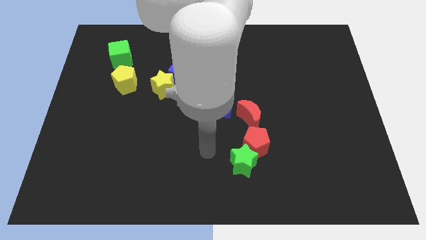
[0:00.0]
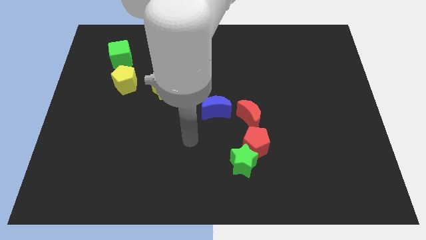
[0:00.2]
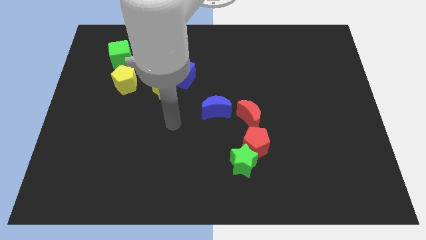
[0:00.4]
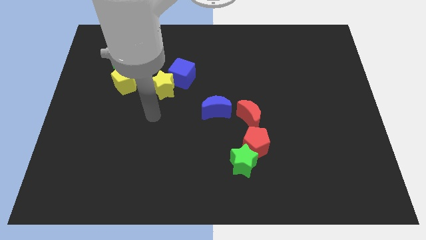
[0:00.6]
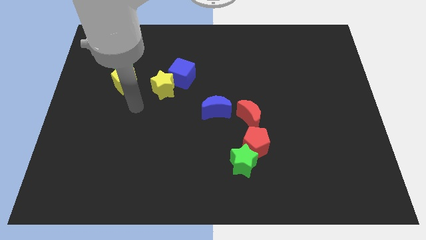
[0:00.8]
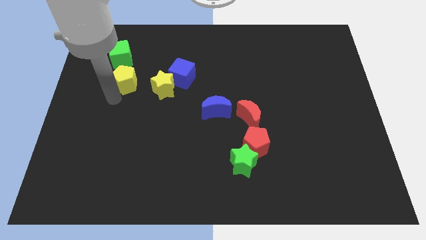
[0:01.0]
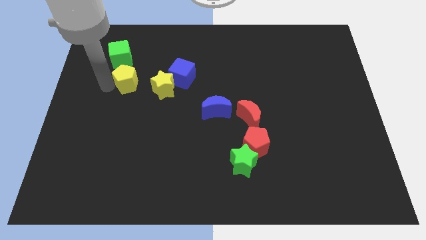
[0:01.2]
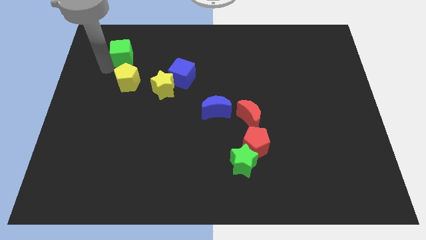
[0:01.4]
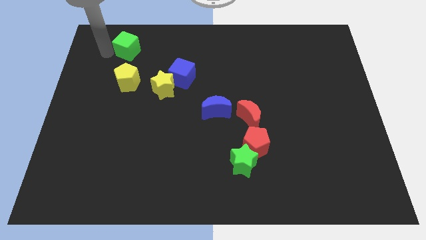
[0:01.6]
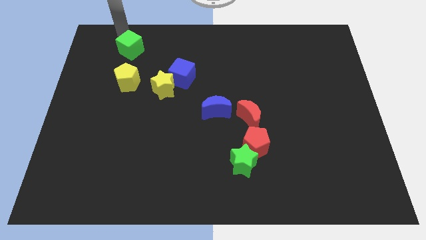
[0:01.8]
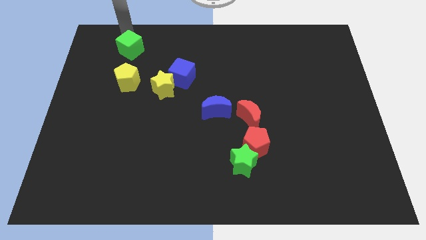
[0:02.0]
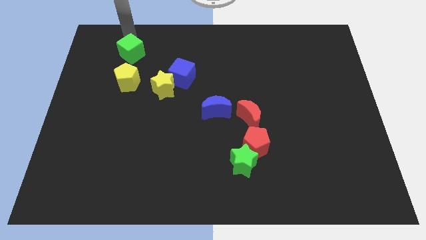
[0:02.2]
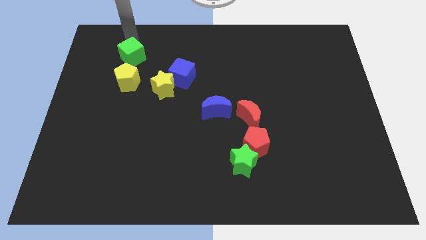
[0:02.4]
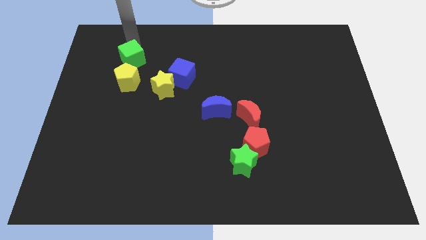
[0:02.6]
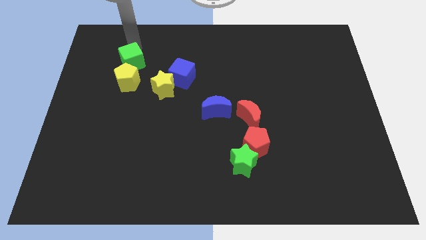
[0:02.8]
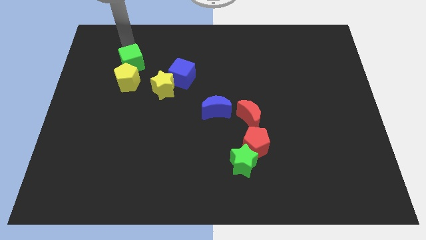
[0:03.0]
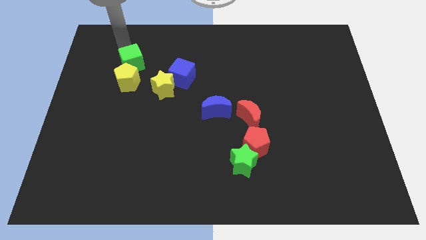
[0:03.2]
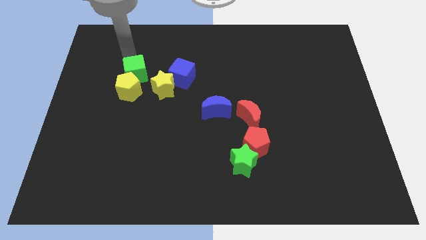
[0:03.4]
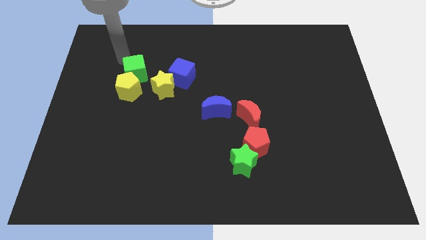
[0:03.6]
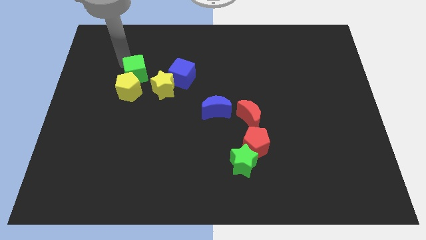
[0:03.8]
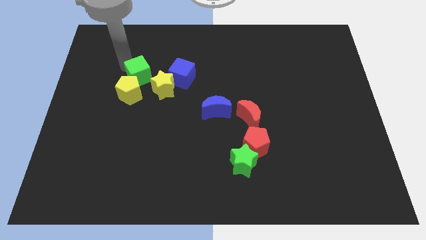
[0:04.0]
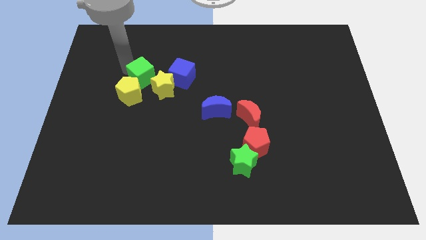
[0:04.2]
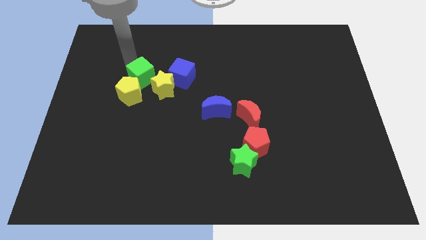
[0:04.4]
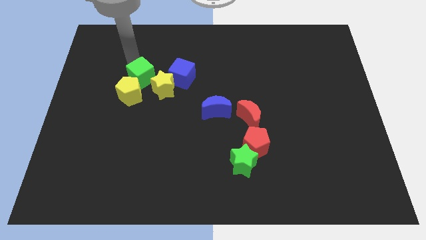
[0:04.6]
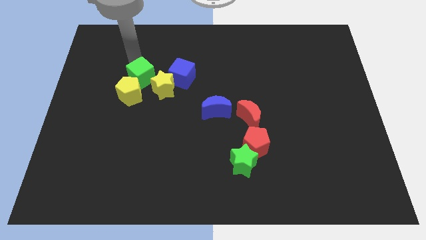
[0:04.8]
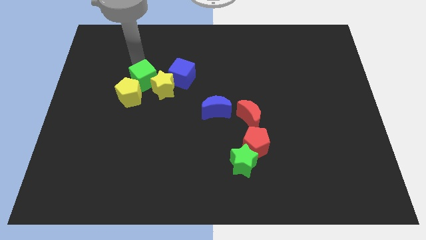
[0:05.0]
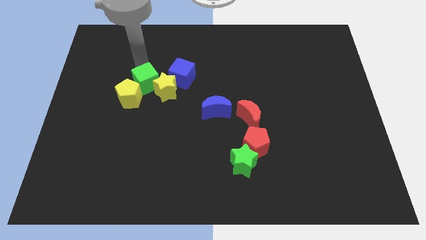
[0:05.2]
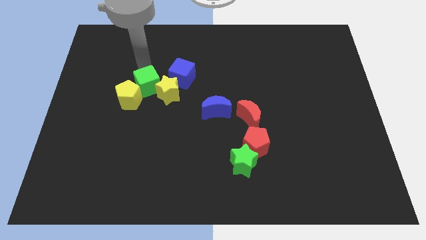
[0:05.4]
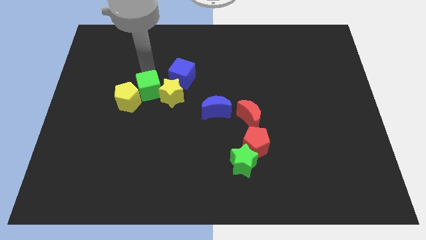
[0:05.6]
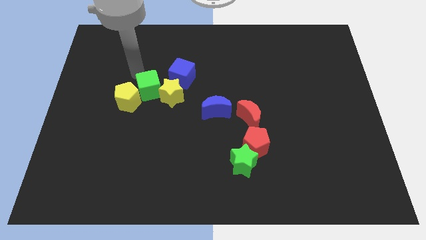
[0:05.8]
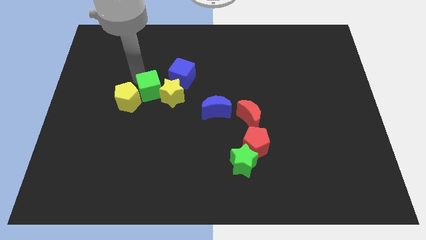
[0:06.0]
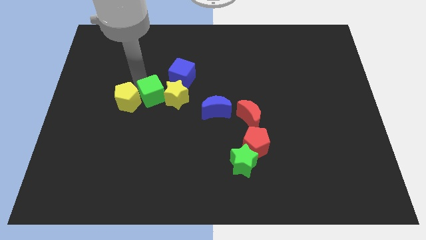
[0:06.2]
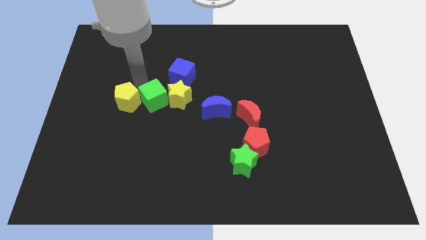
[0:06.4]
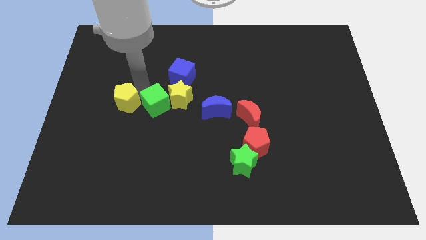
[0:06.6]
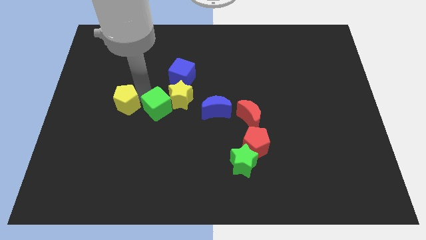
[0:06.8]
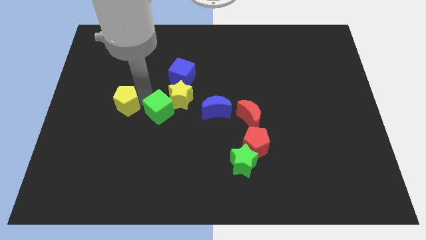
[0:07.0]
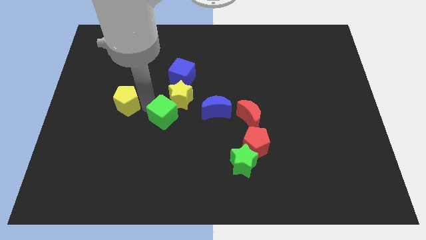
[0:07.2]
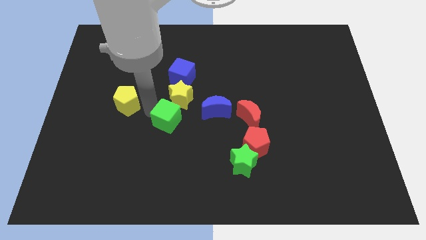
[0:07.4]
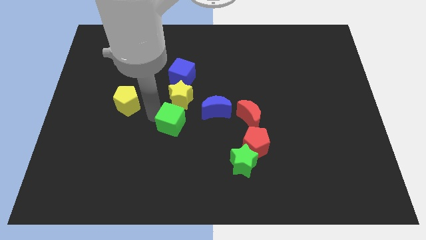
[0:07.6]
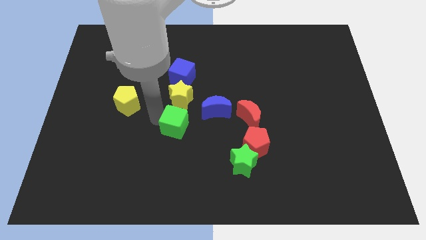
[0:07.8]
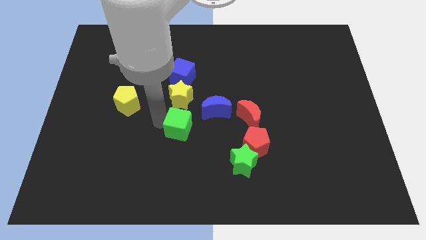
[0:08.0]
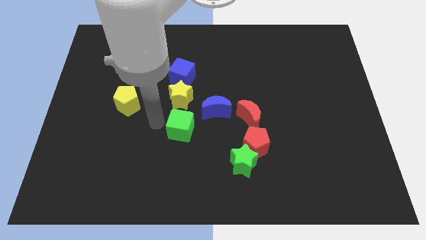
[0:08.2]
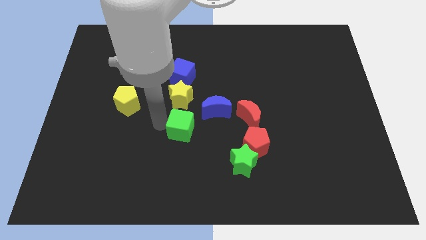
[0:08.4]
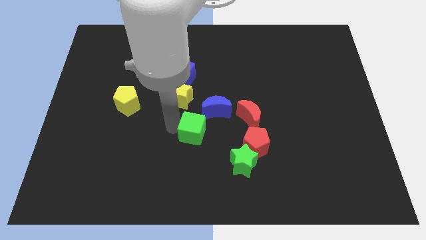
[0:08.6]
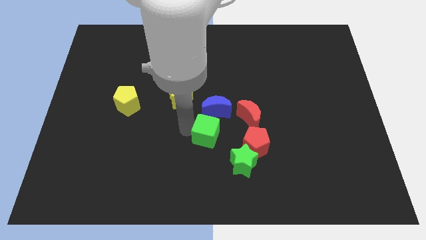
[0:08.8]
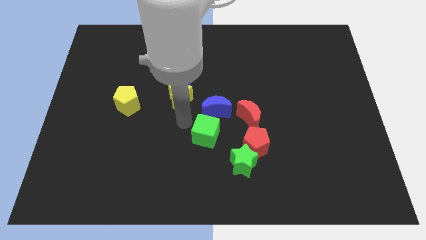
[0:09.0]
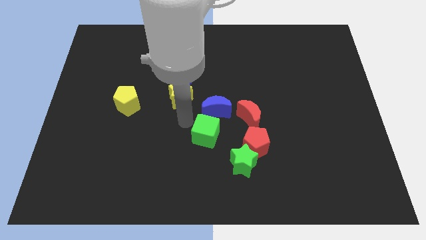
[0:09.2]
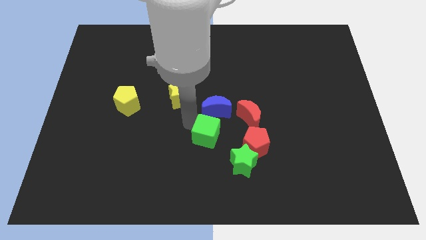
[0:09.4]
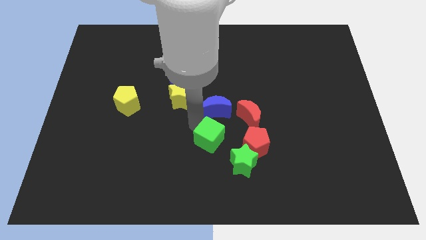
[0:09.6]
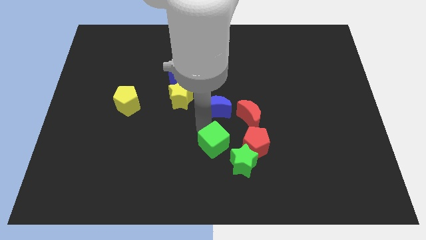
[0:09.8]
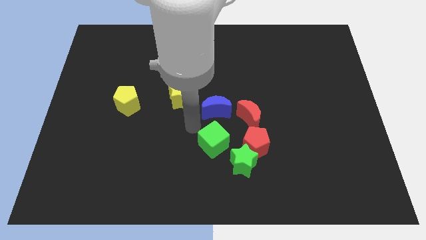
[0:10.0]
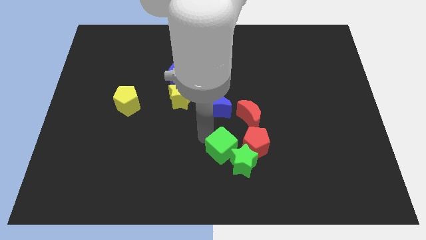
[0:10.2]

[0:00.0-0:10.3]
put the green cube to the green star

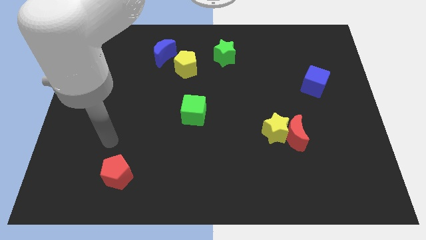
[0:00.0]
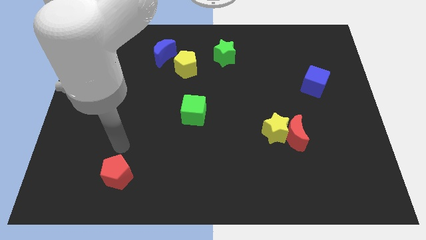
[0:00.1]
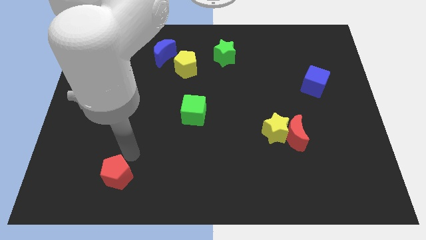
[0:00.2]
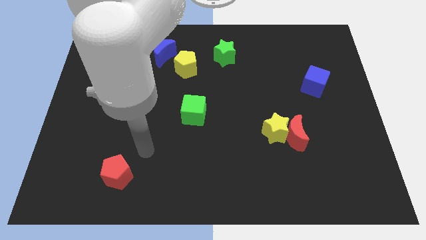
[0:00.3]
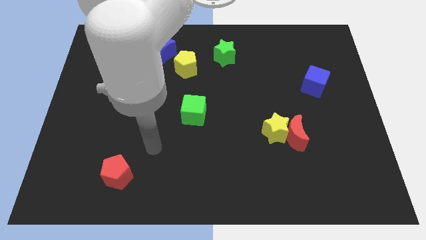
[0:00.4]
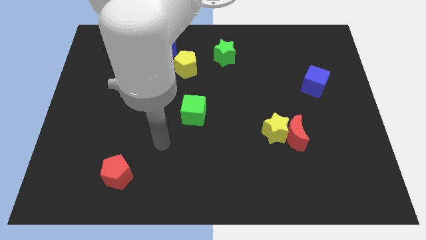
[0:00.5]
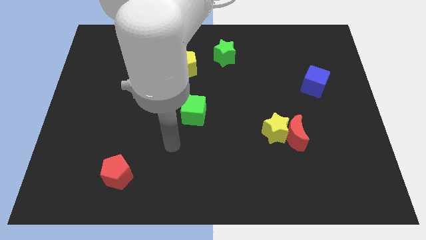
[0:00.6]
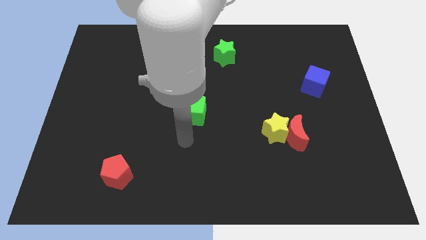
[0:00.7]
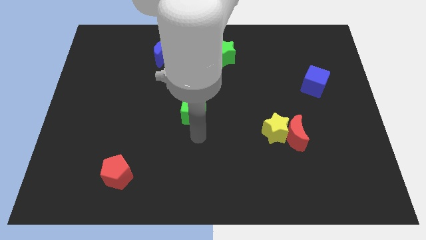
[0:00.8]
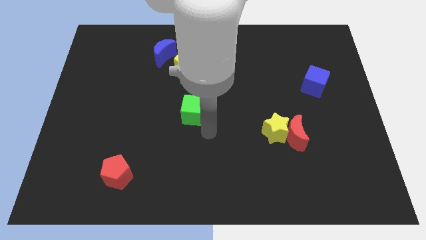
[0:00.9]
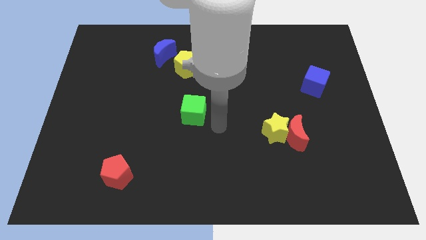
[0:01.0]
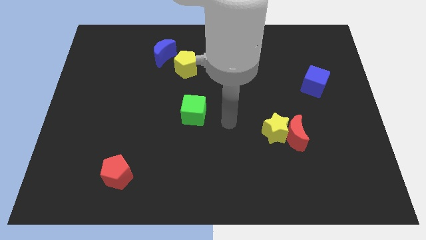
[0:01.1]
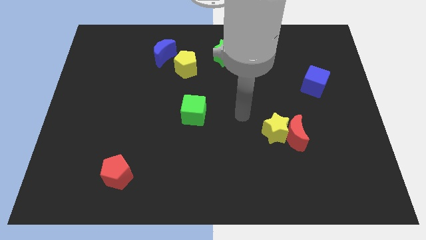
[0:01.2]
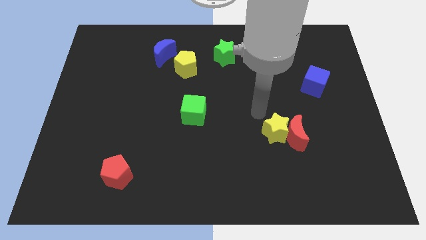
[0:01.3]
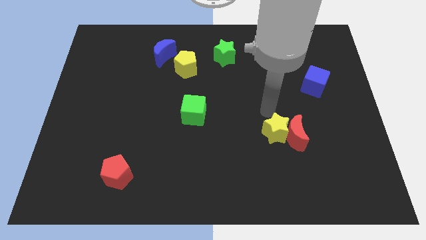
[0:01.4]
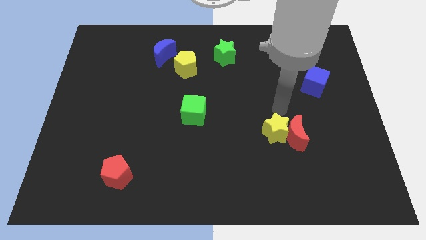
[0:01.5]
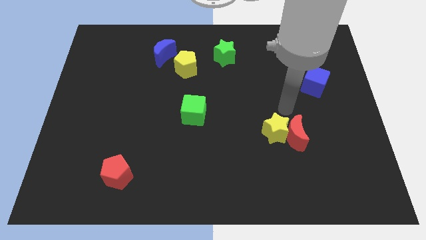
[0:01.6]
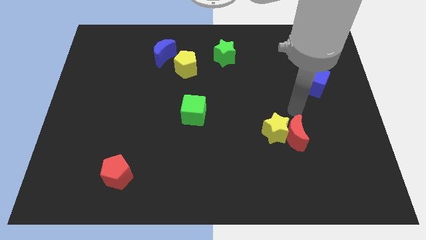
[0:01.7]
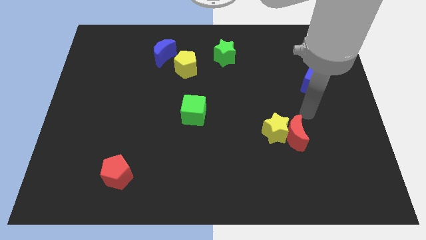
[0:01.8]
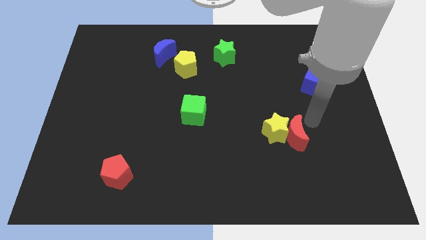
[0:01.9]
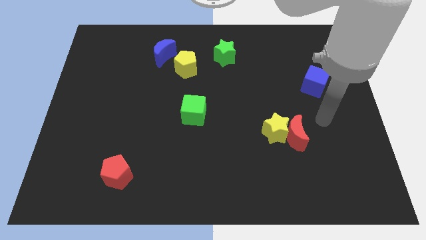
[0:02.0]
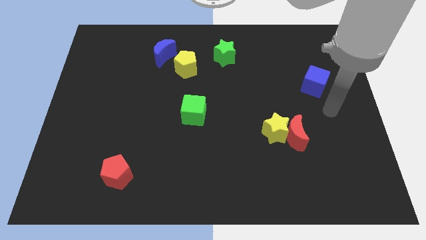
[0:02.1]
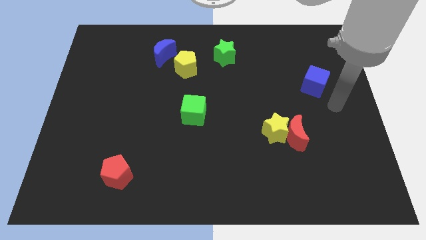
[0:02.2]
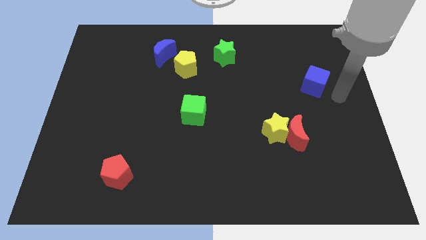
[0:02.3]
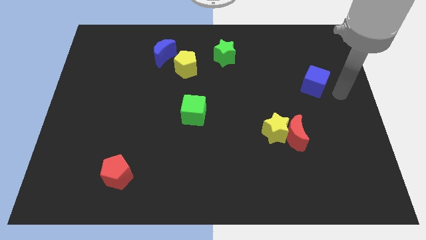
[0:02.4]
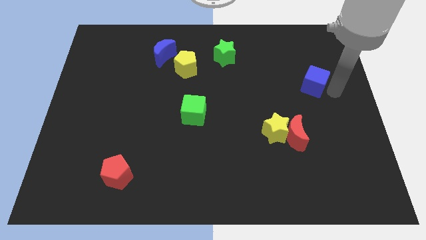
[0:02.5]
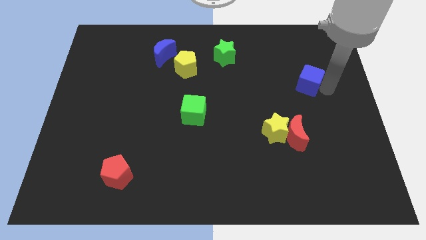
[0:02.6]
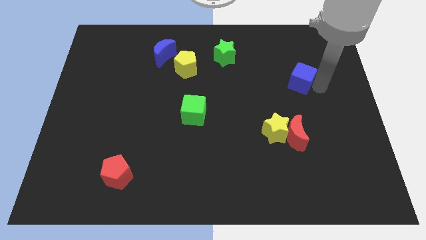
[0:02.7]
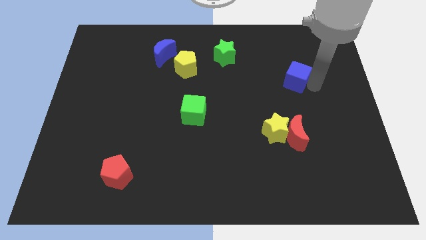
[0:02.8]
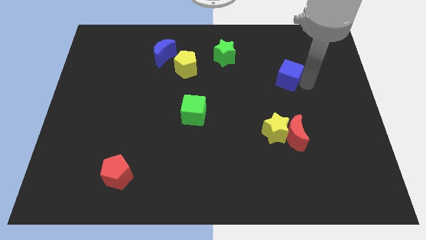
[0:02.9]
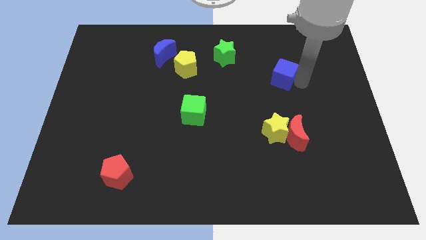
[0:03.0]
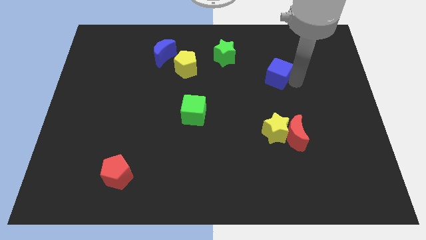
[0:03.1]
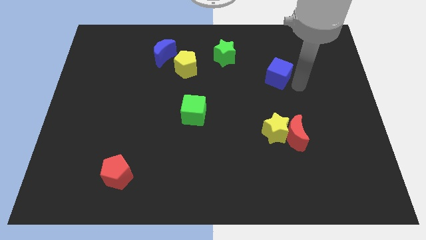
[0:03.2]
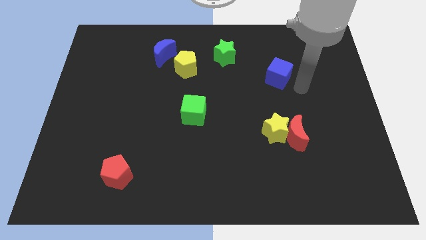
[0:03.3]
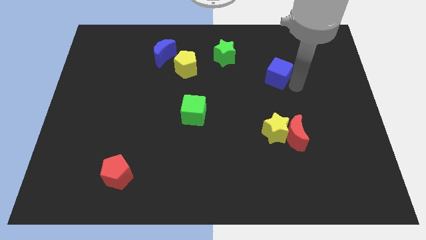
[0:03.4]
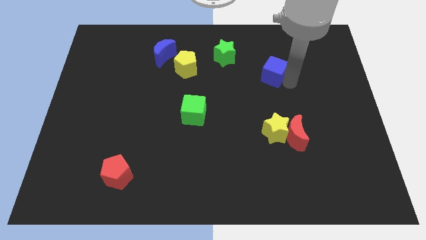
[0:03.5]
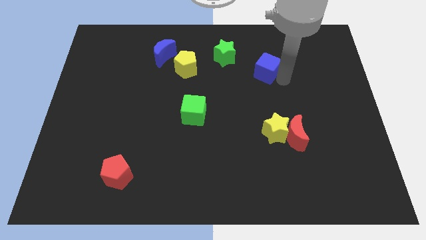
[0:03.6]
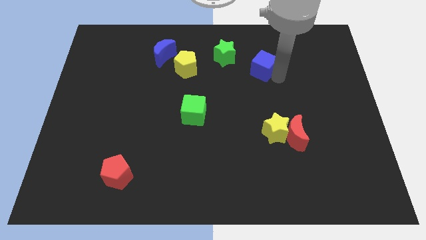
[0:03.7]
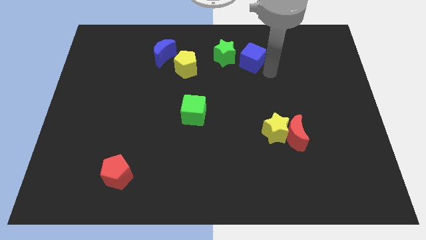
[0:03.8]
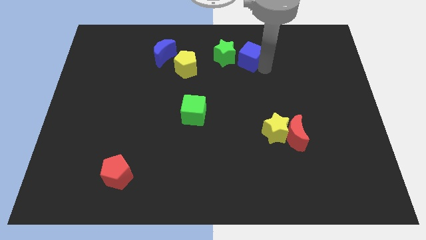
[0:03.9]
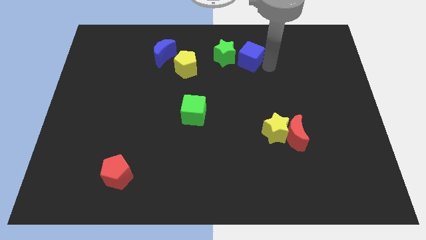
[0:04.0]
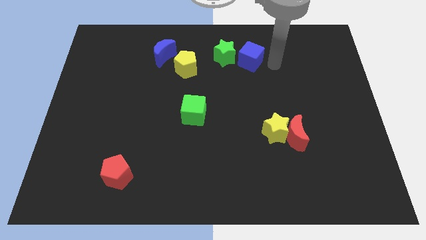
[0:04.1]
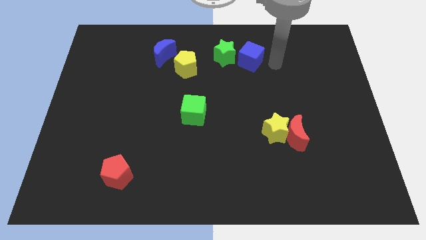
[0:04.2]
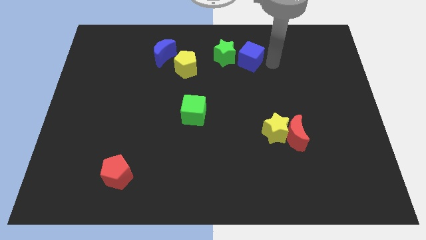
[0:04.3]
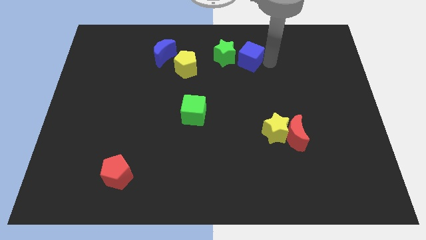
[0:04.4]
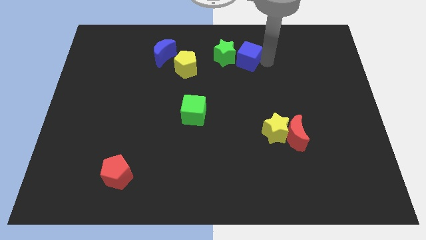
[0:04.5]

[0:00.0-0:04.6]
put the blue cube close to the green star
